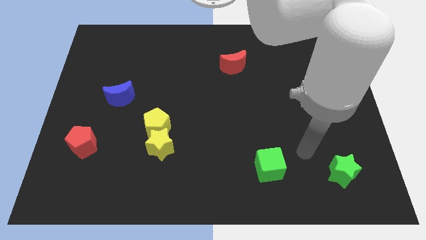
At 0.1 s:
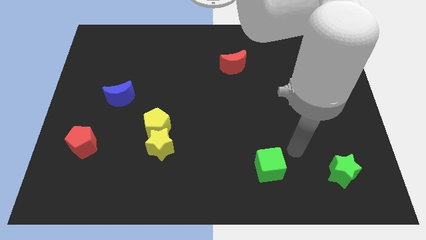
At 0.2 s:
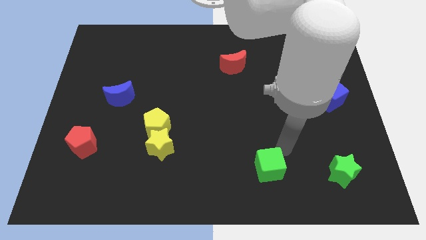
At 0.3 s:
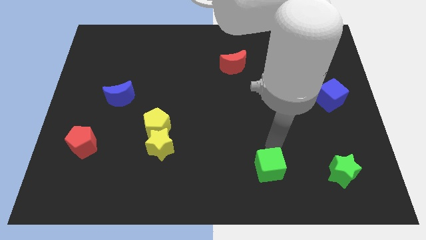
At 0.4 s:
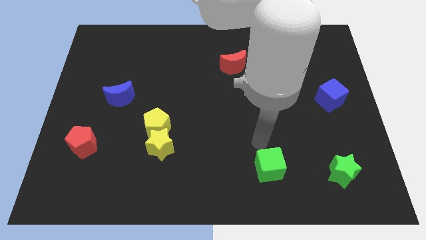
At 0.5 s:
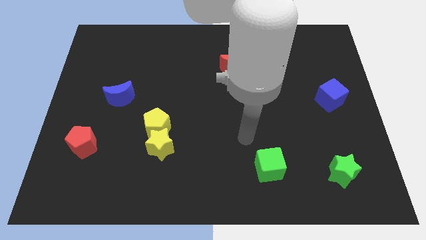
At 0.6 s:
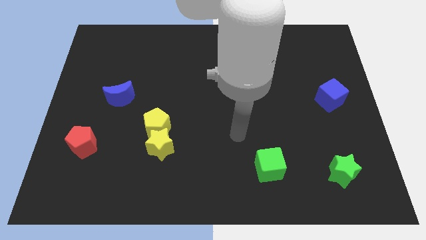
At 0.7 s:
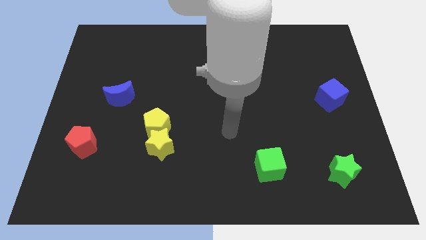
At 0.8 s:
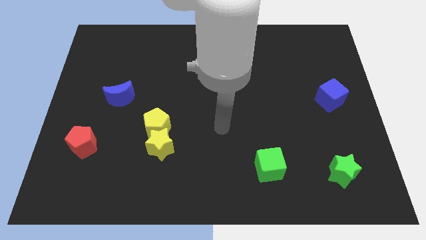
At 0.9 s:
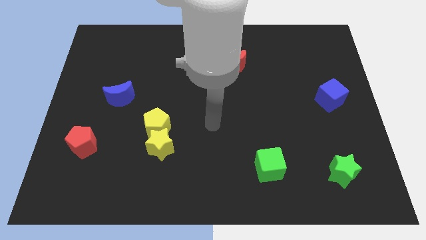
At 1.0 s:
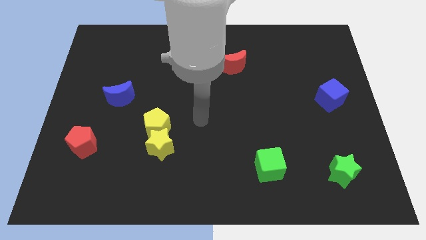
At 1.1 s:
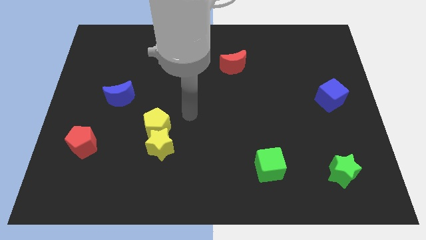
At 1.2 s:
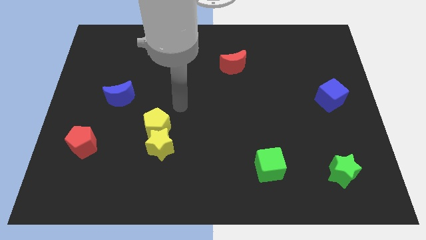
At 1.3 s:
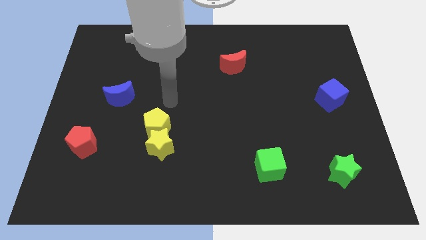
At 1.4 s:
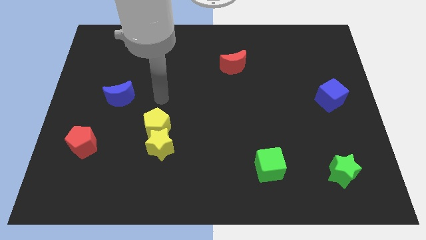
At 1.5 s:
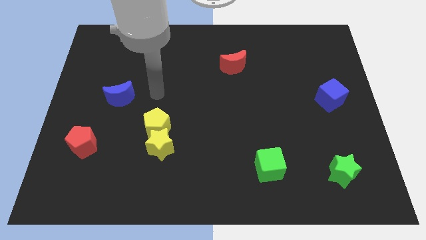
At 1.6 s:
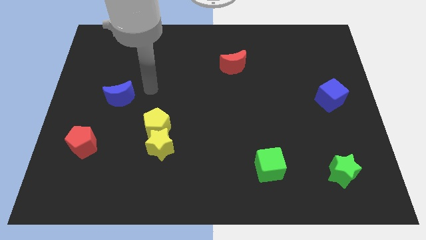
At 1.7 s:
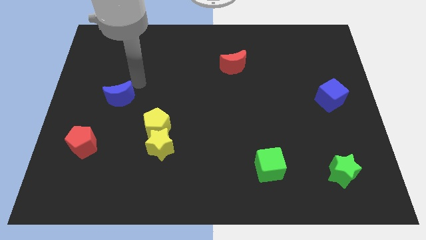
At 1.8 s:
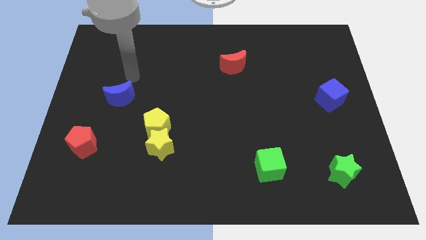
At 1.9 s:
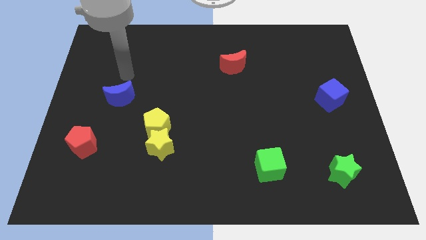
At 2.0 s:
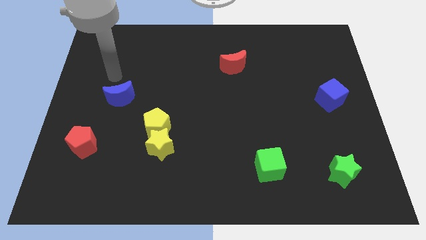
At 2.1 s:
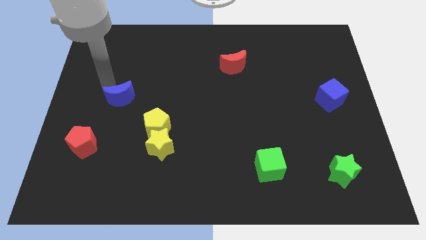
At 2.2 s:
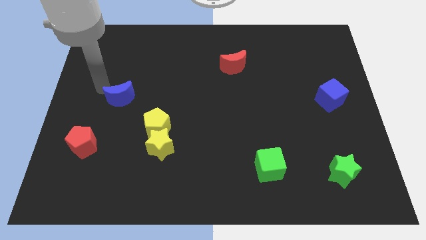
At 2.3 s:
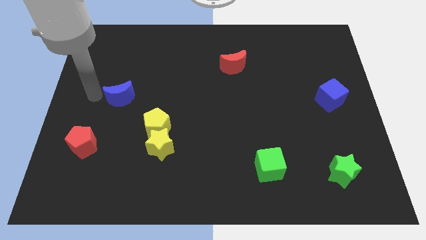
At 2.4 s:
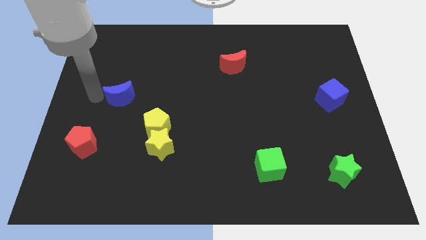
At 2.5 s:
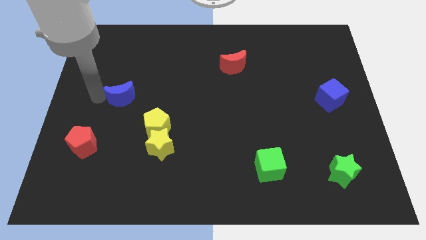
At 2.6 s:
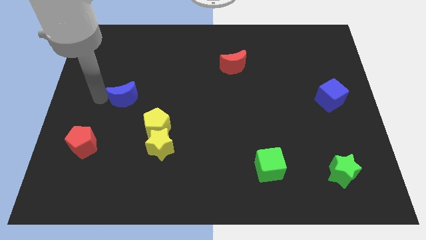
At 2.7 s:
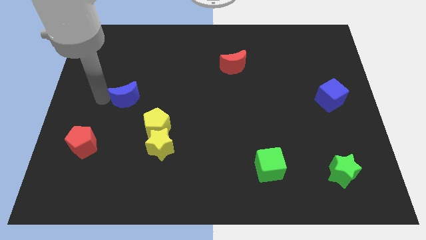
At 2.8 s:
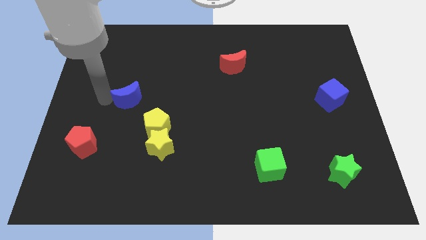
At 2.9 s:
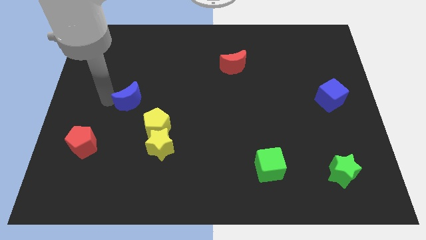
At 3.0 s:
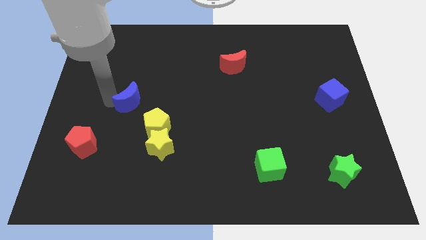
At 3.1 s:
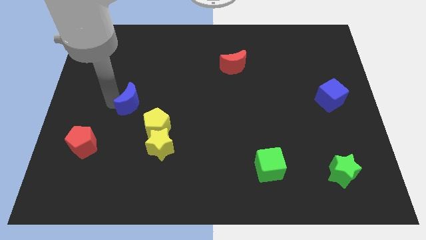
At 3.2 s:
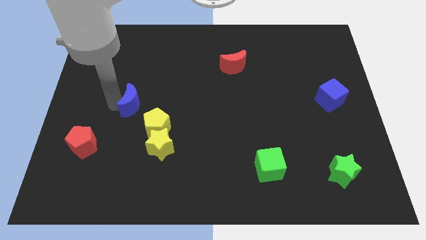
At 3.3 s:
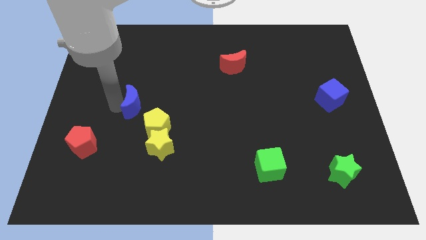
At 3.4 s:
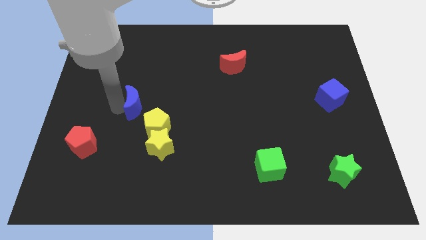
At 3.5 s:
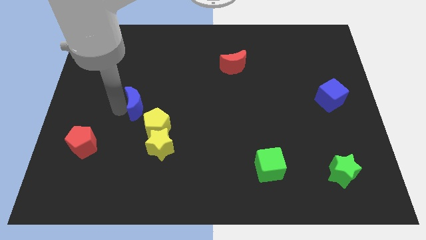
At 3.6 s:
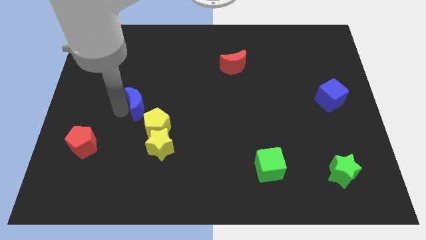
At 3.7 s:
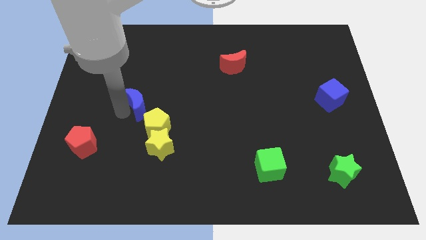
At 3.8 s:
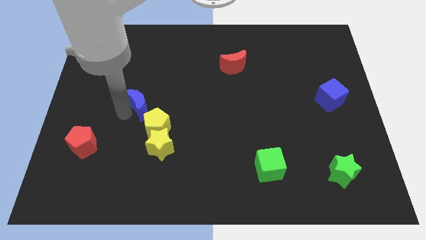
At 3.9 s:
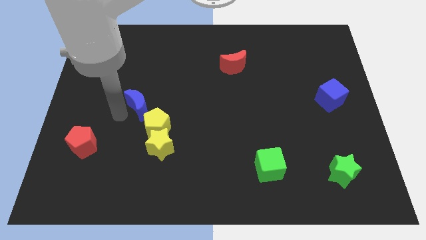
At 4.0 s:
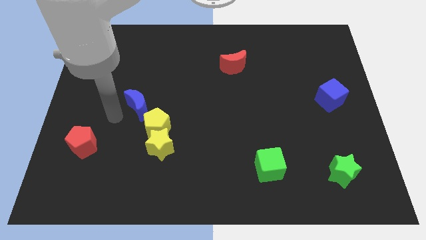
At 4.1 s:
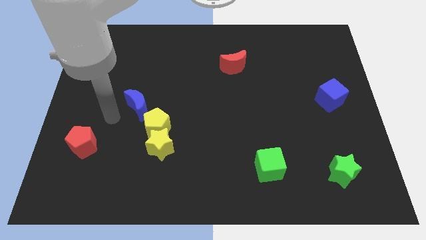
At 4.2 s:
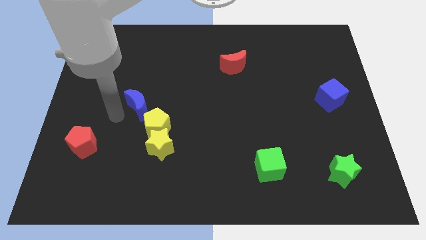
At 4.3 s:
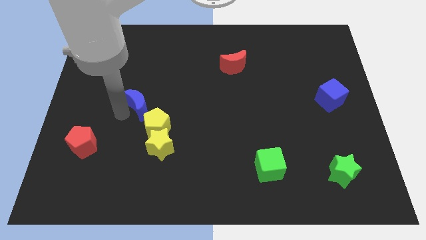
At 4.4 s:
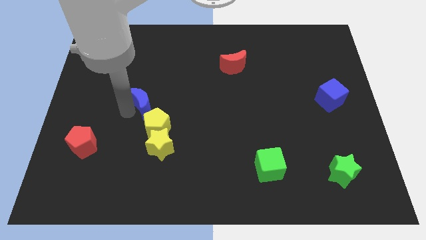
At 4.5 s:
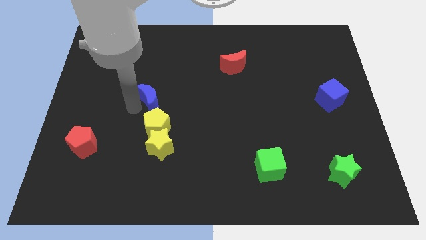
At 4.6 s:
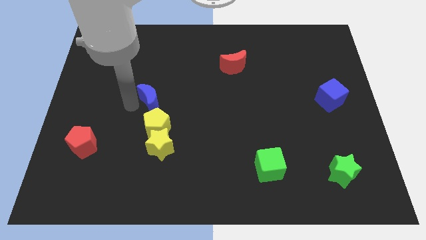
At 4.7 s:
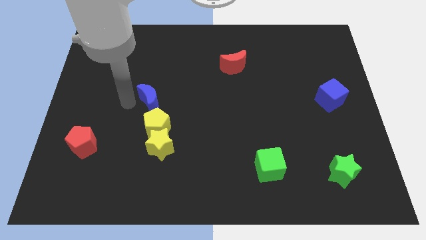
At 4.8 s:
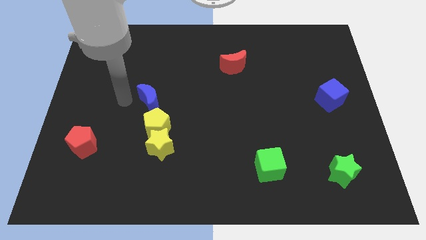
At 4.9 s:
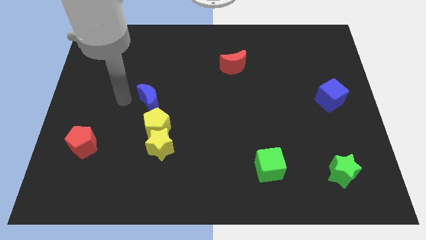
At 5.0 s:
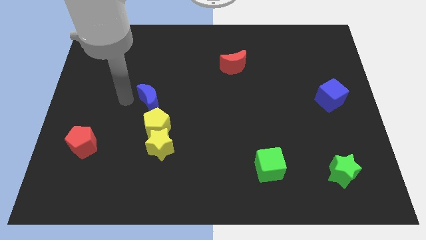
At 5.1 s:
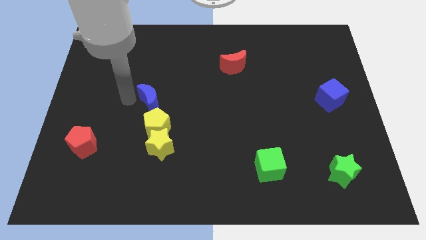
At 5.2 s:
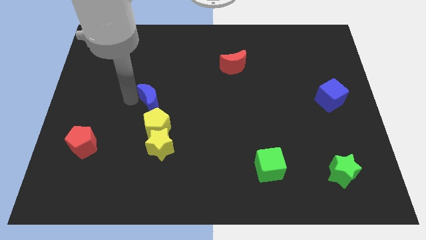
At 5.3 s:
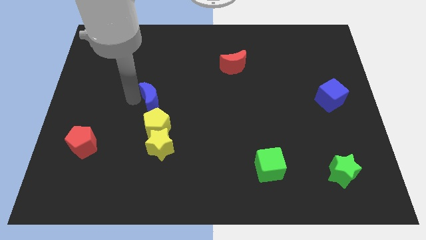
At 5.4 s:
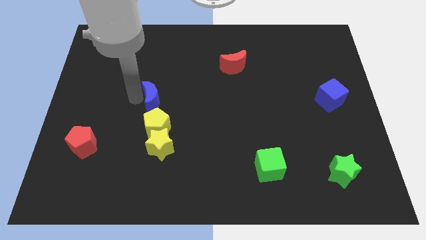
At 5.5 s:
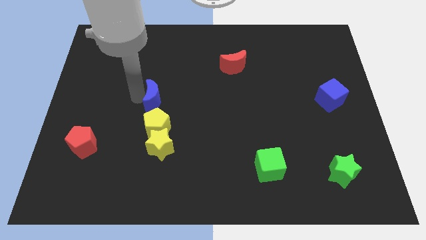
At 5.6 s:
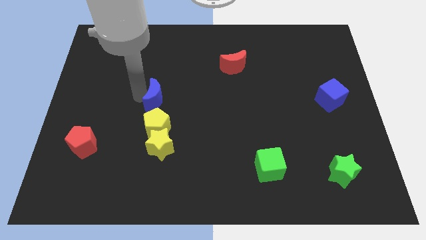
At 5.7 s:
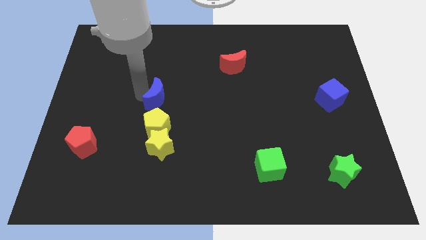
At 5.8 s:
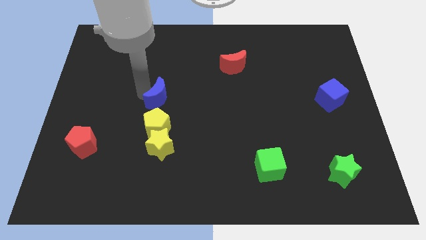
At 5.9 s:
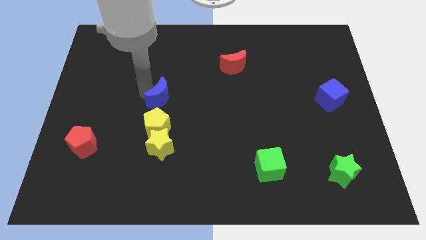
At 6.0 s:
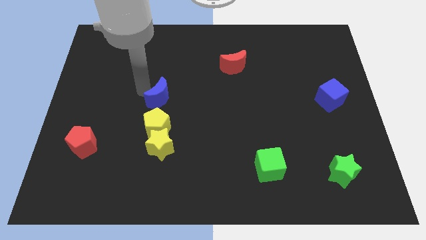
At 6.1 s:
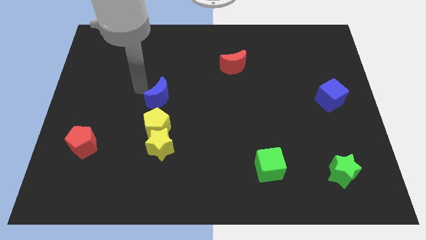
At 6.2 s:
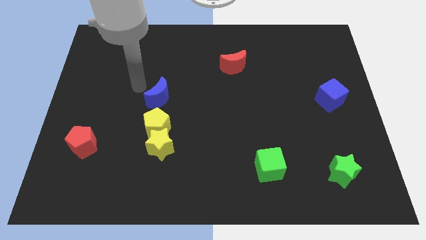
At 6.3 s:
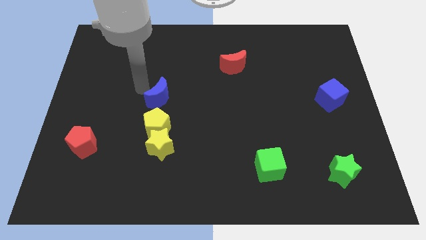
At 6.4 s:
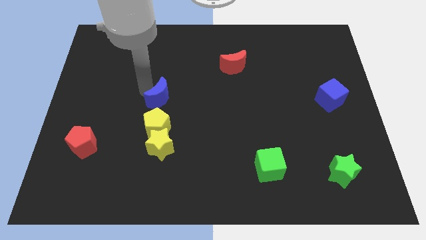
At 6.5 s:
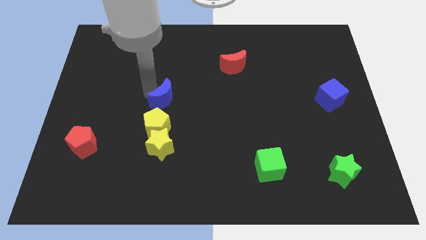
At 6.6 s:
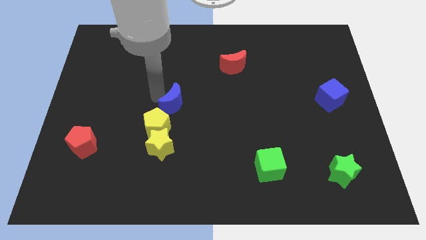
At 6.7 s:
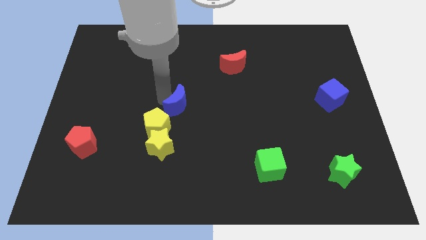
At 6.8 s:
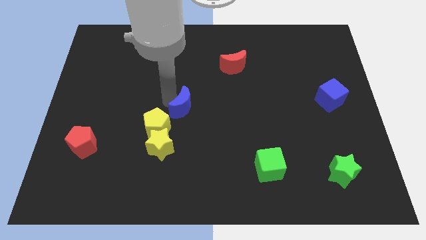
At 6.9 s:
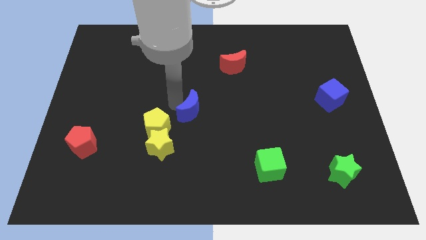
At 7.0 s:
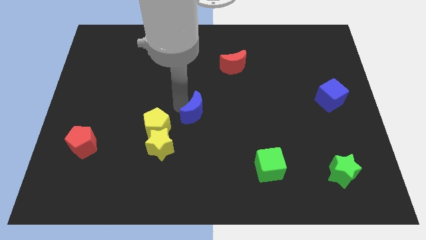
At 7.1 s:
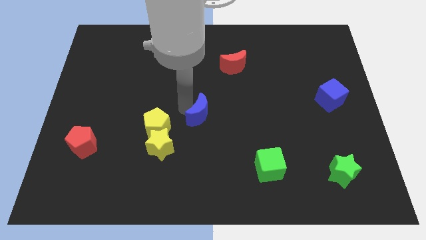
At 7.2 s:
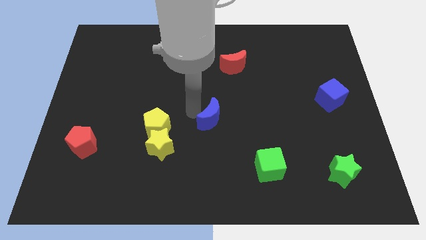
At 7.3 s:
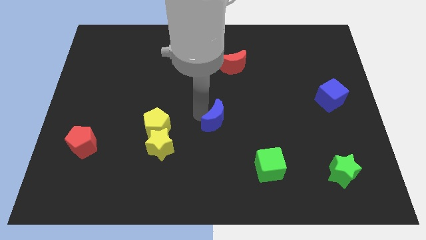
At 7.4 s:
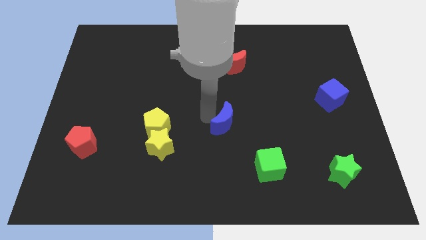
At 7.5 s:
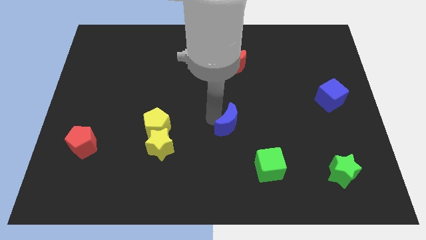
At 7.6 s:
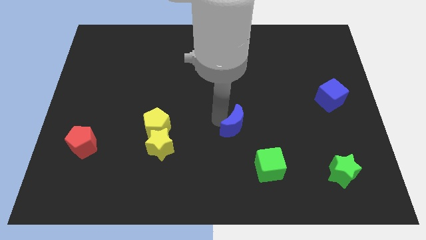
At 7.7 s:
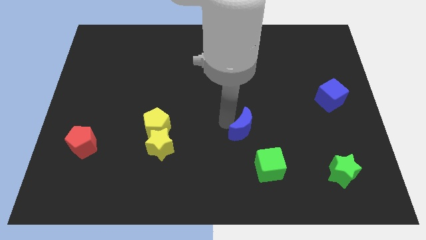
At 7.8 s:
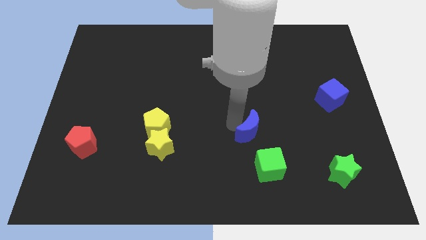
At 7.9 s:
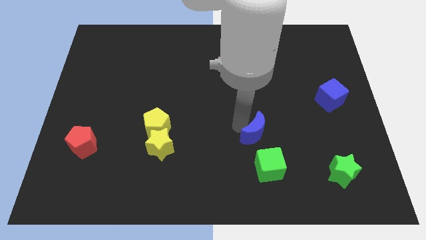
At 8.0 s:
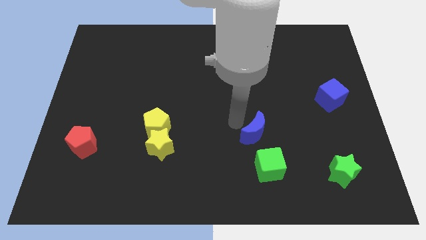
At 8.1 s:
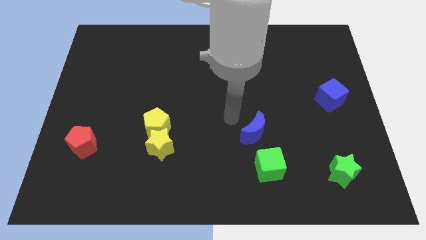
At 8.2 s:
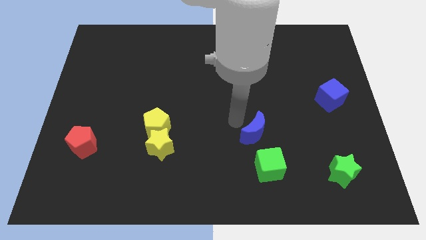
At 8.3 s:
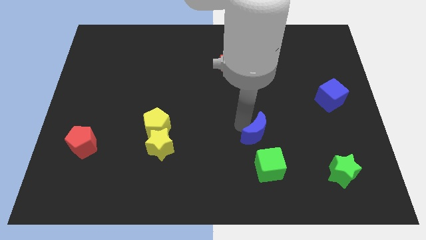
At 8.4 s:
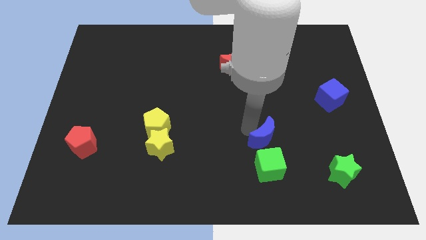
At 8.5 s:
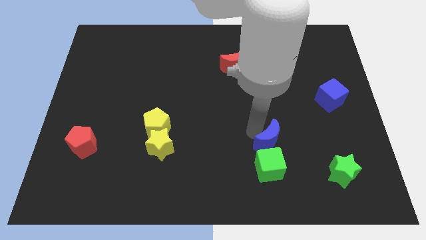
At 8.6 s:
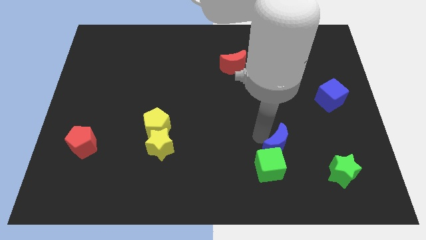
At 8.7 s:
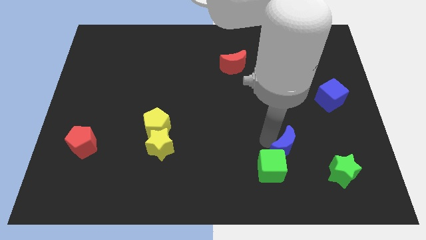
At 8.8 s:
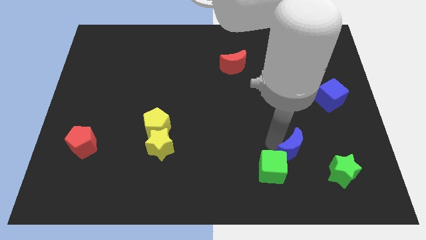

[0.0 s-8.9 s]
push the blue moon right of the green cube
